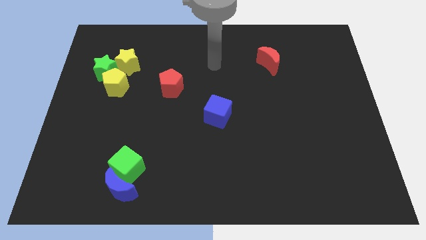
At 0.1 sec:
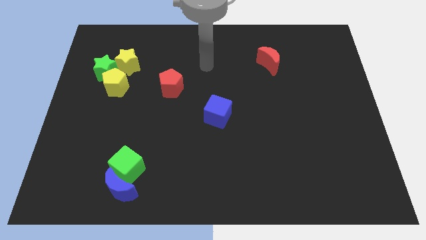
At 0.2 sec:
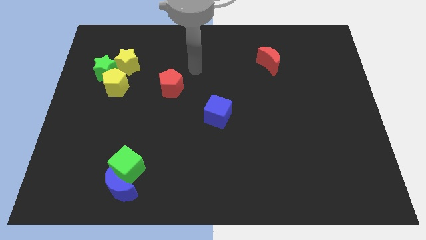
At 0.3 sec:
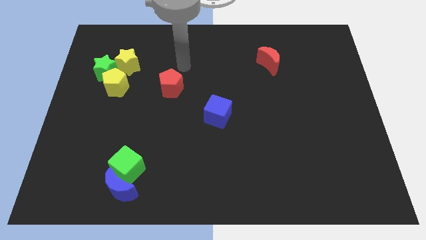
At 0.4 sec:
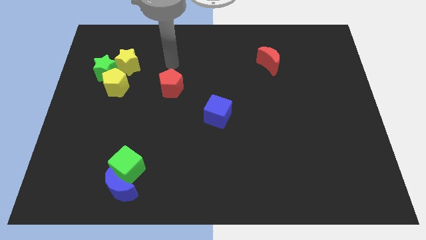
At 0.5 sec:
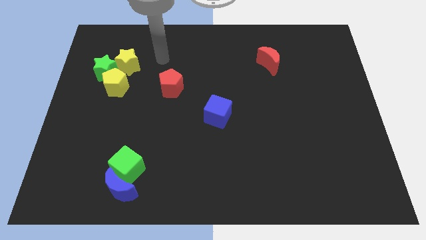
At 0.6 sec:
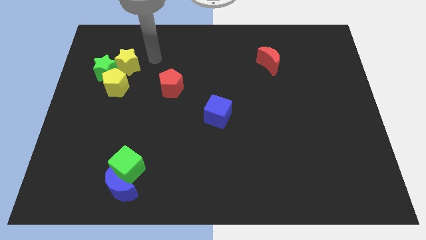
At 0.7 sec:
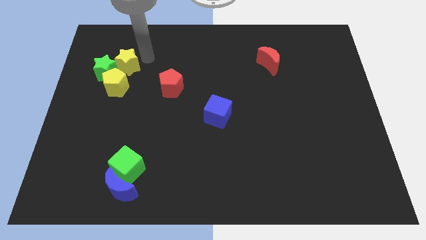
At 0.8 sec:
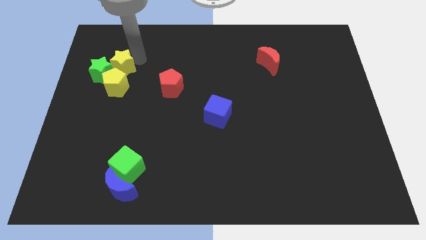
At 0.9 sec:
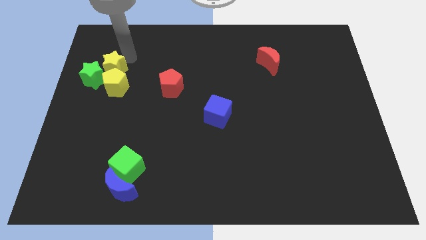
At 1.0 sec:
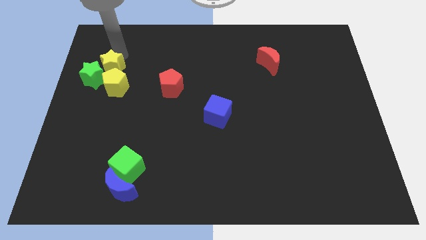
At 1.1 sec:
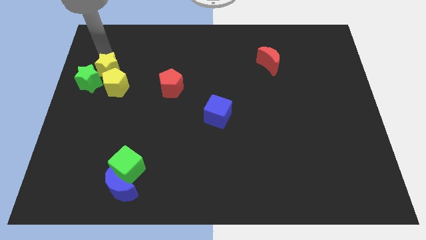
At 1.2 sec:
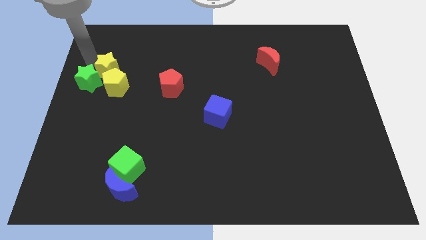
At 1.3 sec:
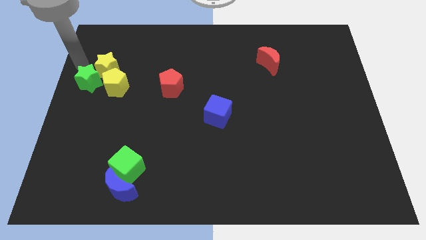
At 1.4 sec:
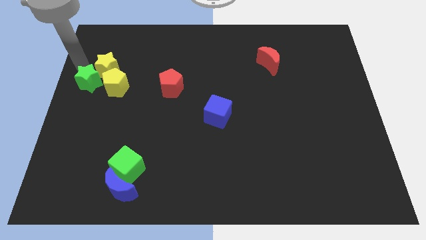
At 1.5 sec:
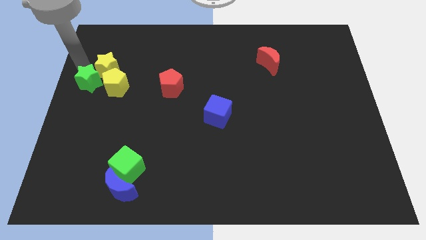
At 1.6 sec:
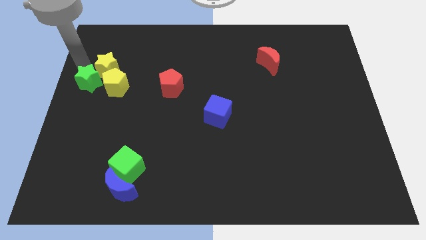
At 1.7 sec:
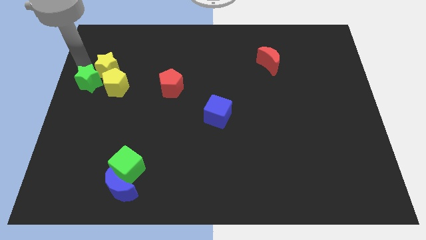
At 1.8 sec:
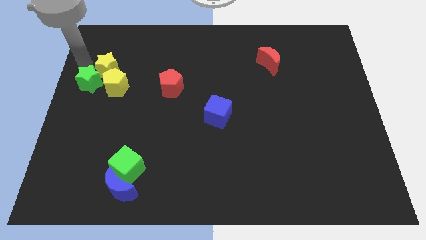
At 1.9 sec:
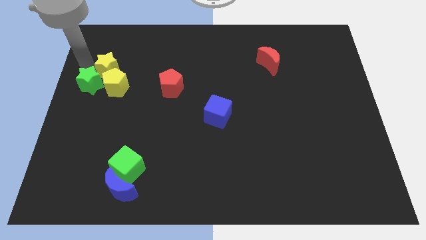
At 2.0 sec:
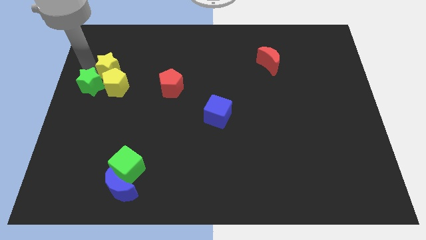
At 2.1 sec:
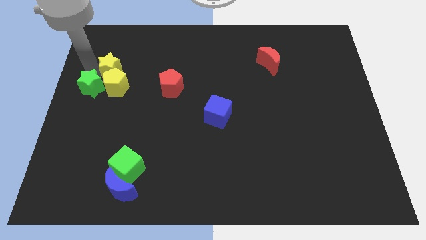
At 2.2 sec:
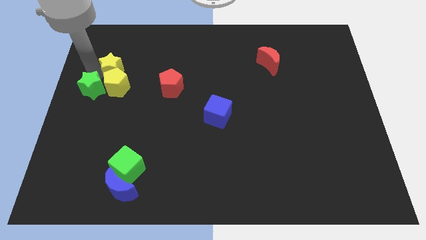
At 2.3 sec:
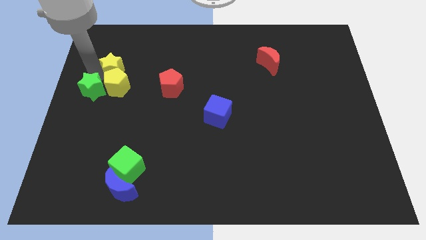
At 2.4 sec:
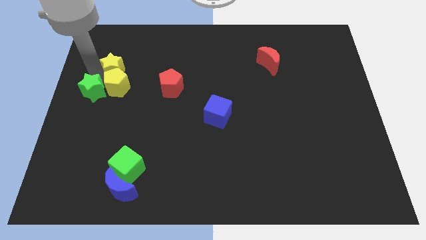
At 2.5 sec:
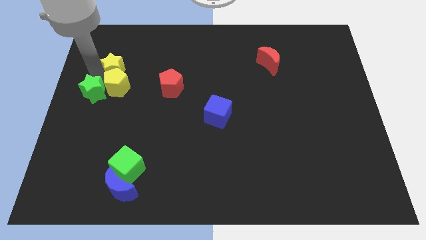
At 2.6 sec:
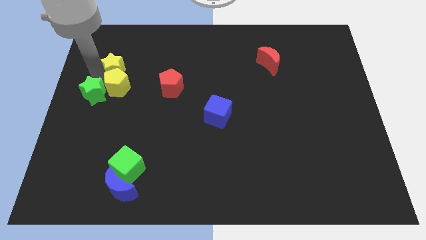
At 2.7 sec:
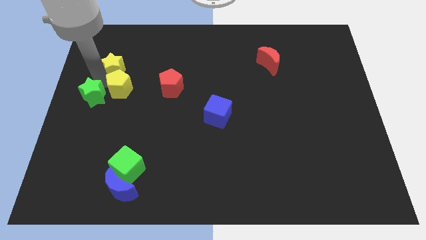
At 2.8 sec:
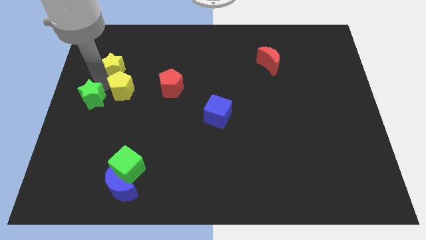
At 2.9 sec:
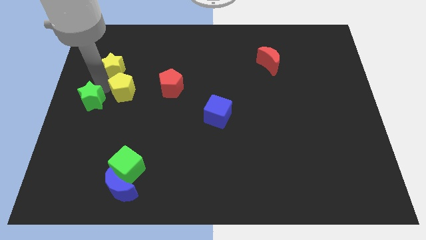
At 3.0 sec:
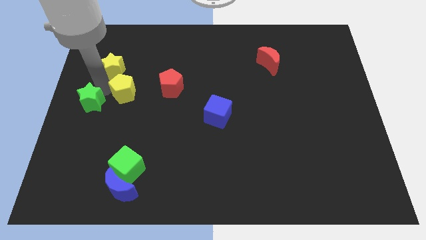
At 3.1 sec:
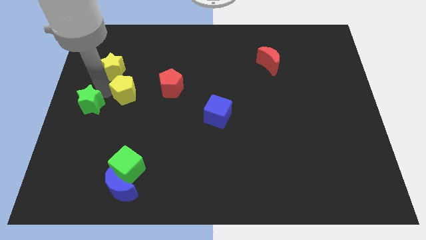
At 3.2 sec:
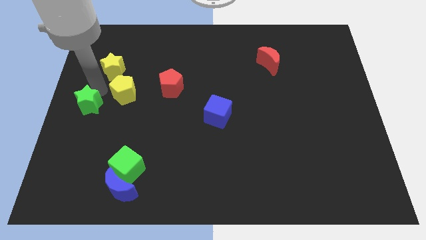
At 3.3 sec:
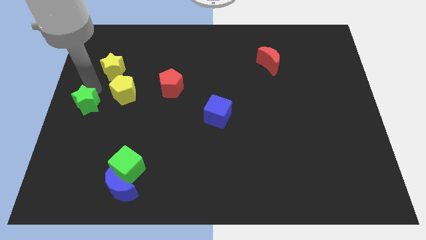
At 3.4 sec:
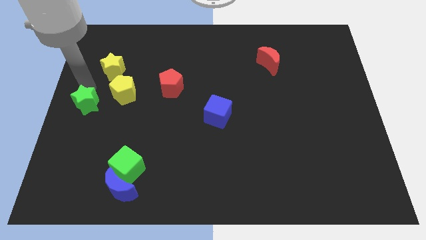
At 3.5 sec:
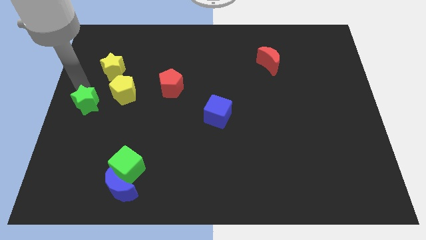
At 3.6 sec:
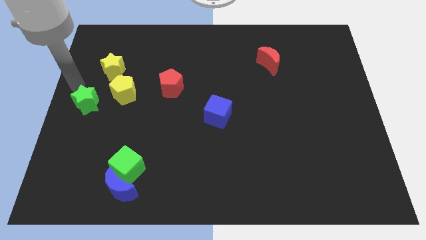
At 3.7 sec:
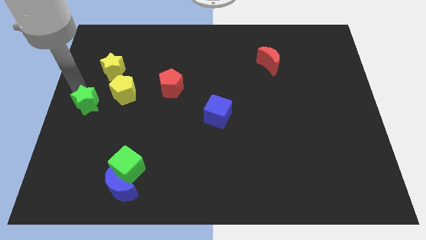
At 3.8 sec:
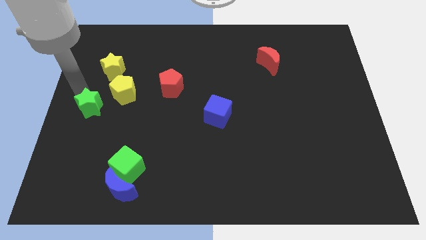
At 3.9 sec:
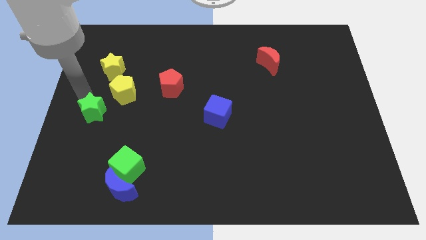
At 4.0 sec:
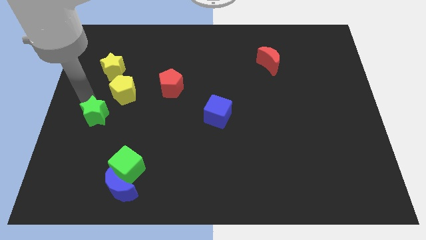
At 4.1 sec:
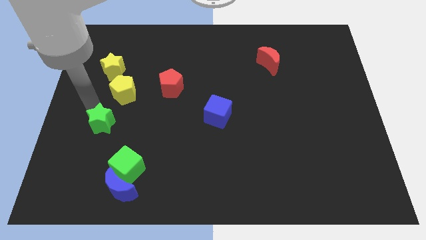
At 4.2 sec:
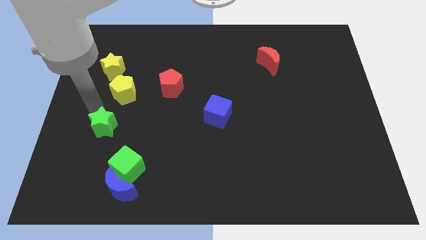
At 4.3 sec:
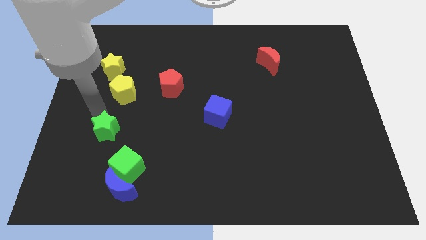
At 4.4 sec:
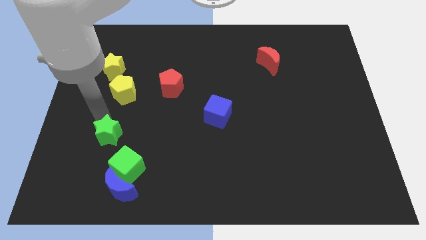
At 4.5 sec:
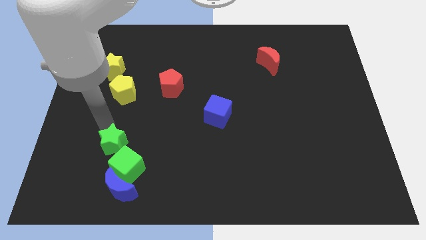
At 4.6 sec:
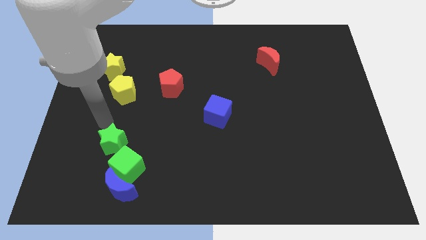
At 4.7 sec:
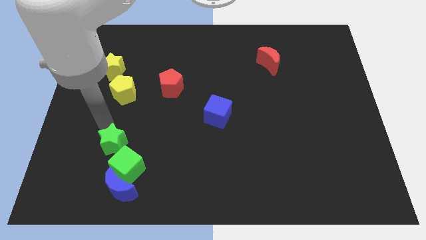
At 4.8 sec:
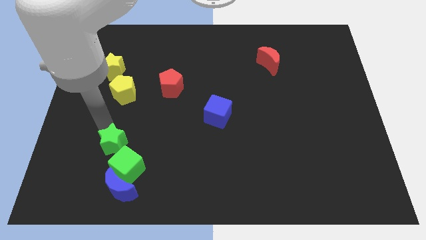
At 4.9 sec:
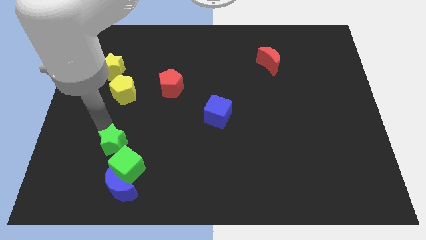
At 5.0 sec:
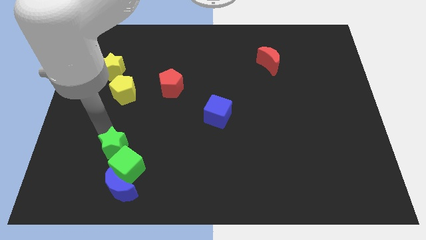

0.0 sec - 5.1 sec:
put the green star next to the green cube

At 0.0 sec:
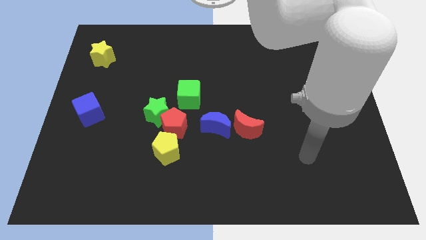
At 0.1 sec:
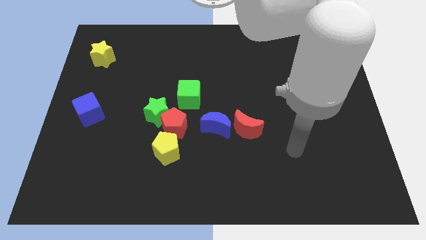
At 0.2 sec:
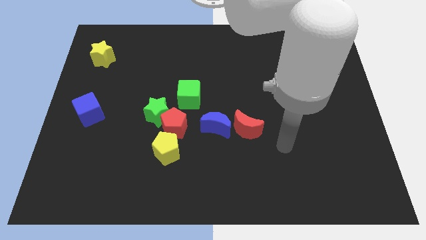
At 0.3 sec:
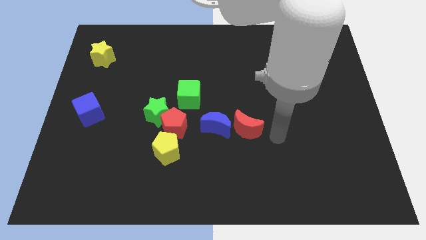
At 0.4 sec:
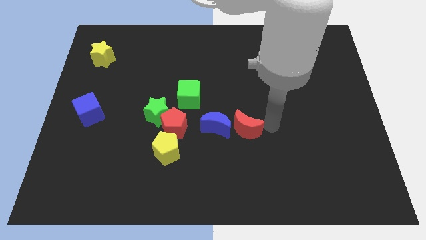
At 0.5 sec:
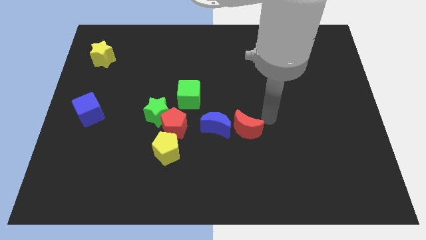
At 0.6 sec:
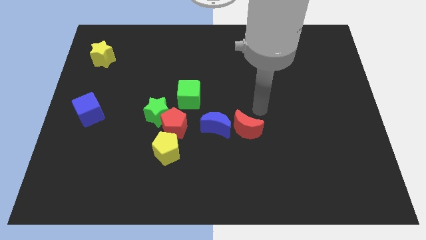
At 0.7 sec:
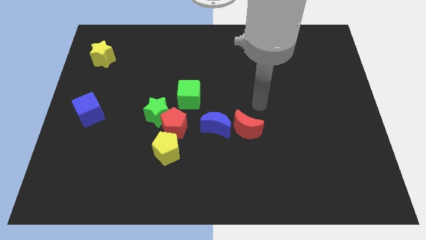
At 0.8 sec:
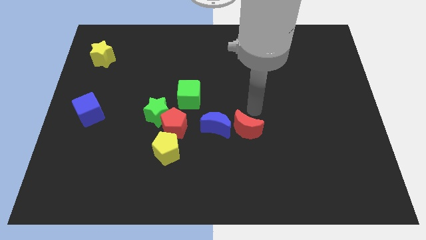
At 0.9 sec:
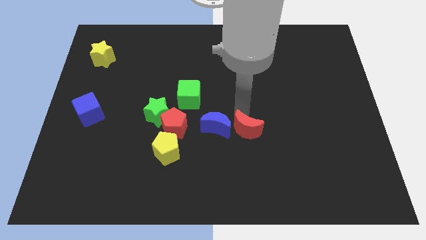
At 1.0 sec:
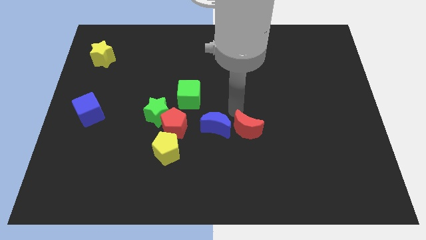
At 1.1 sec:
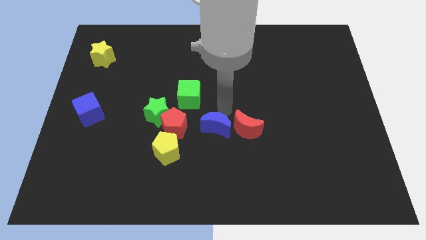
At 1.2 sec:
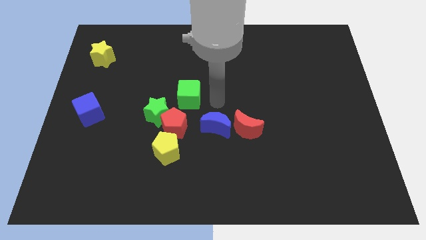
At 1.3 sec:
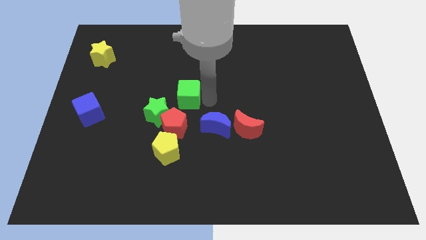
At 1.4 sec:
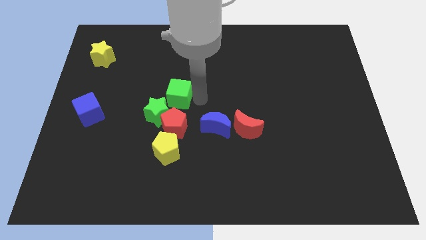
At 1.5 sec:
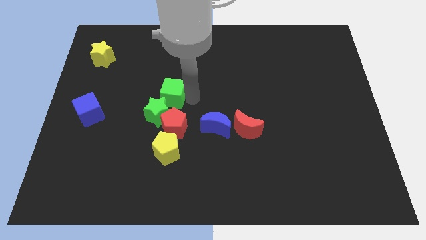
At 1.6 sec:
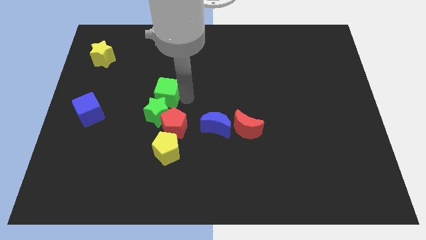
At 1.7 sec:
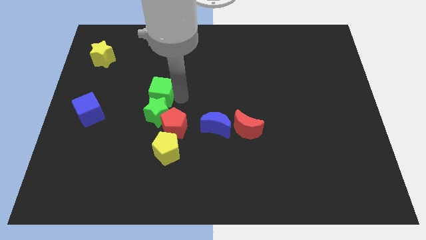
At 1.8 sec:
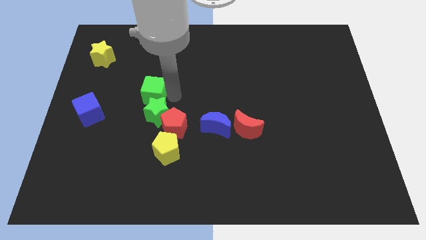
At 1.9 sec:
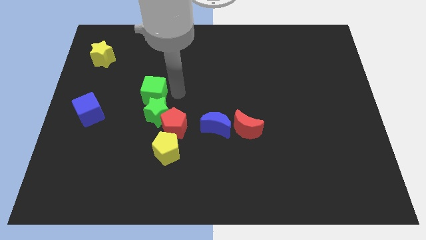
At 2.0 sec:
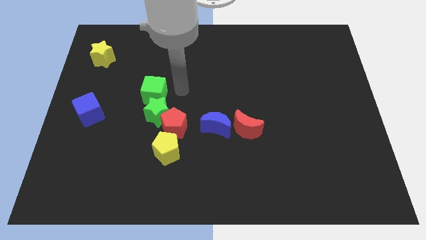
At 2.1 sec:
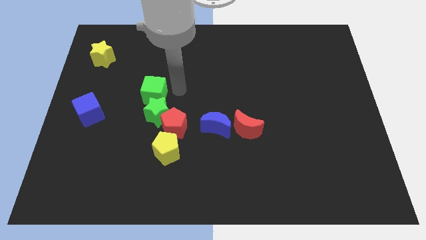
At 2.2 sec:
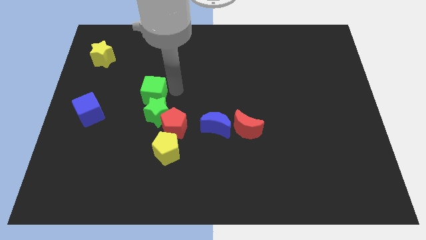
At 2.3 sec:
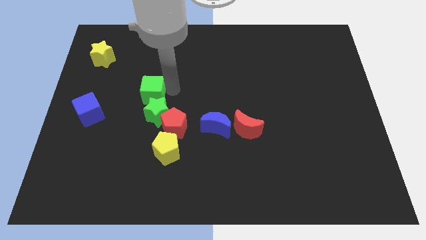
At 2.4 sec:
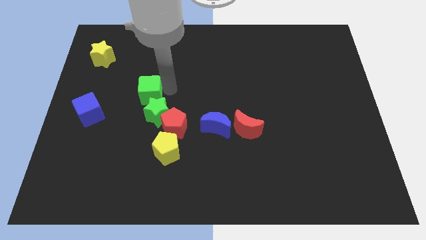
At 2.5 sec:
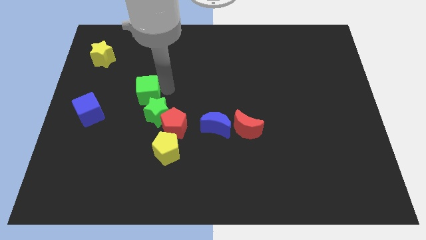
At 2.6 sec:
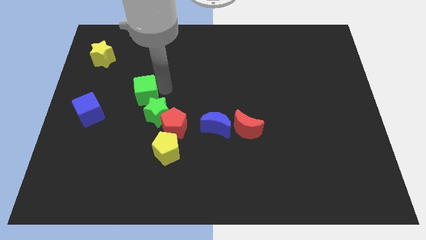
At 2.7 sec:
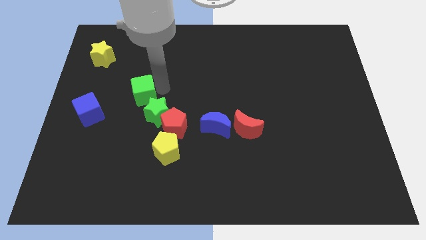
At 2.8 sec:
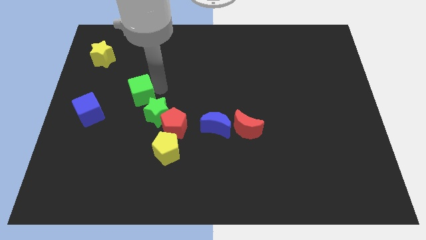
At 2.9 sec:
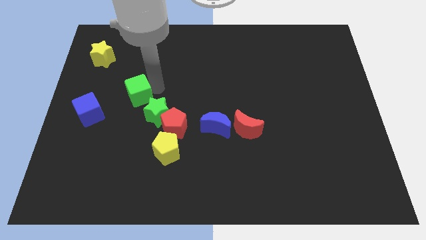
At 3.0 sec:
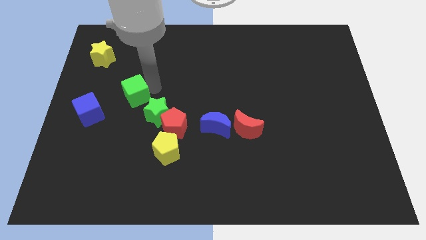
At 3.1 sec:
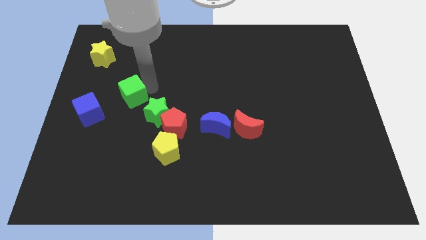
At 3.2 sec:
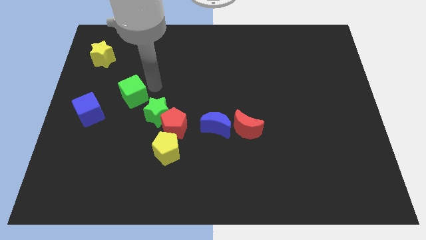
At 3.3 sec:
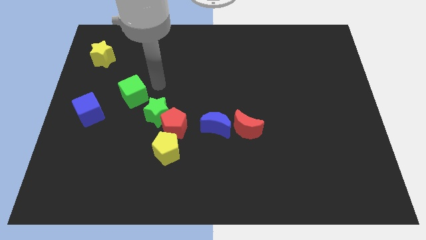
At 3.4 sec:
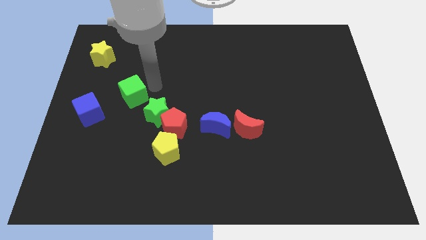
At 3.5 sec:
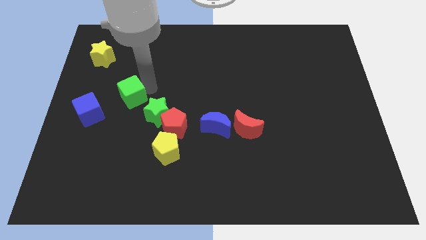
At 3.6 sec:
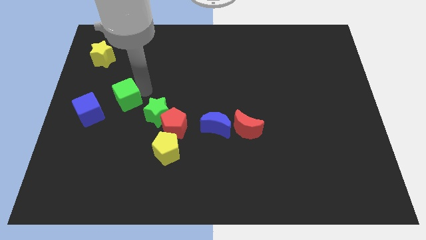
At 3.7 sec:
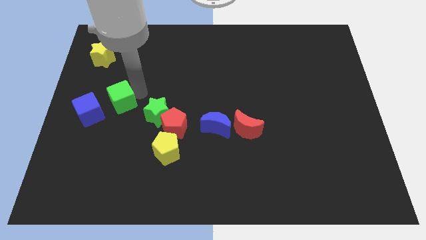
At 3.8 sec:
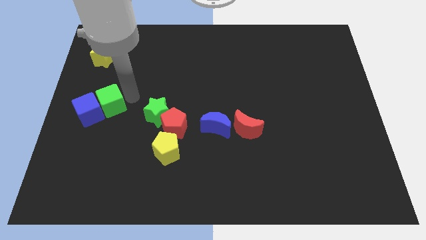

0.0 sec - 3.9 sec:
move the green cube towards the blue cube
